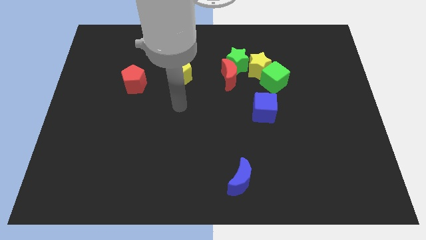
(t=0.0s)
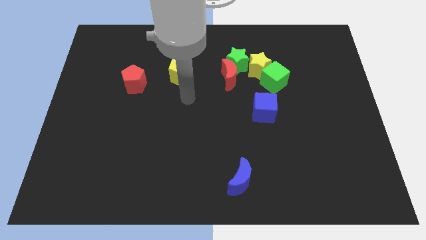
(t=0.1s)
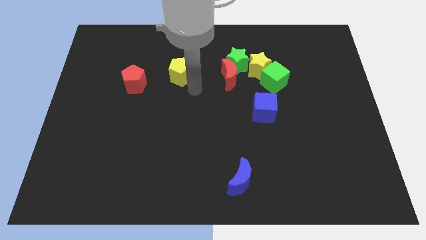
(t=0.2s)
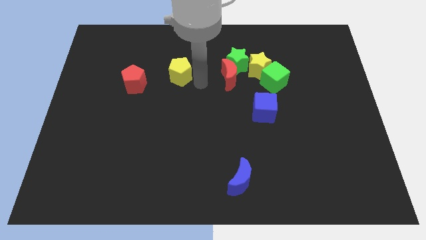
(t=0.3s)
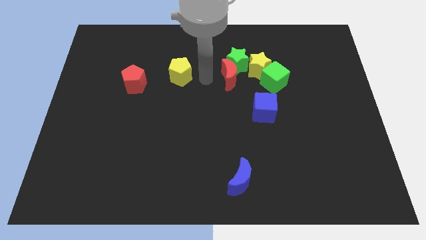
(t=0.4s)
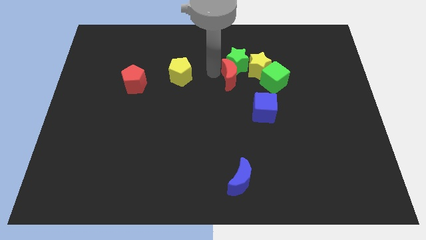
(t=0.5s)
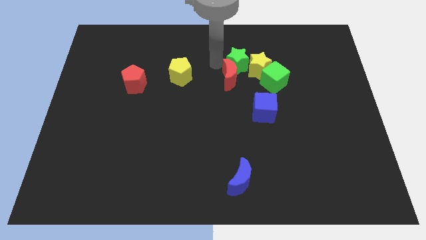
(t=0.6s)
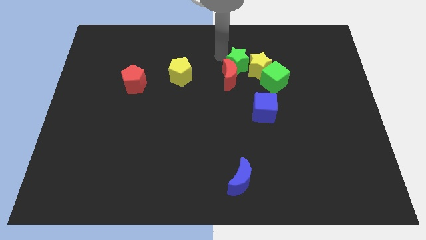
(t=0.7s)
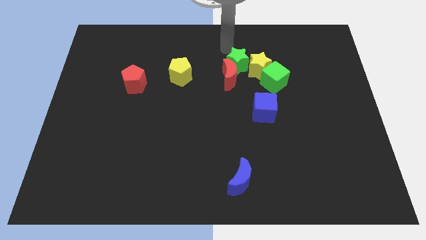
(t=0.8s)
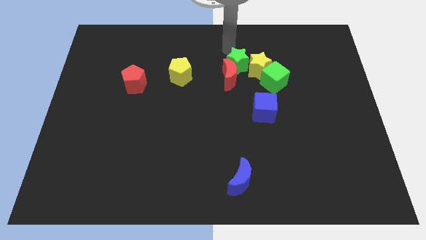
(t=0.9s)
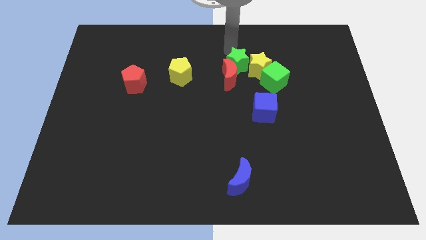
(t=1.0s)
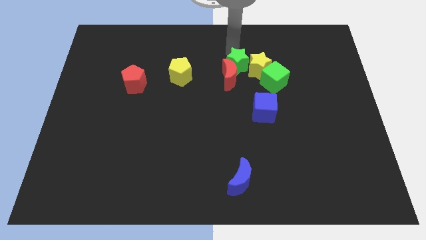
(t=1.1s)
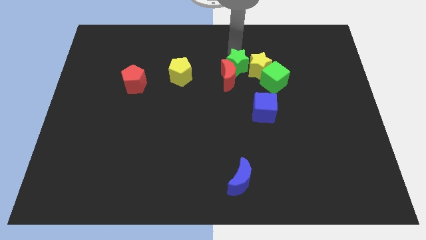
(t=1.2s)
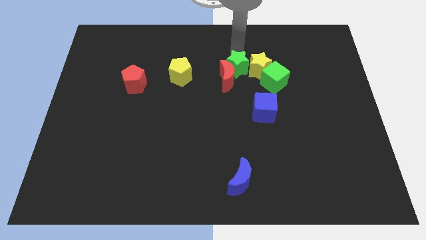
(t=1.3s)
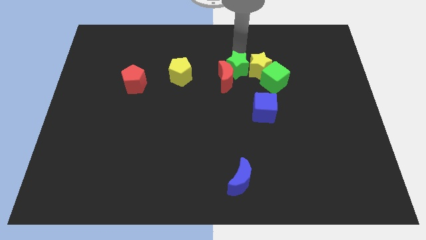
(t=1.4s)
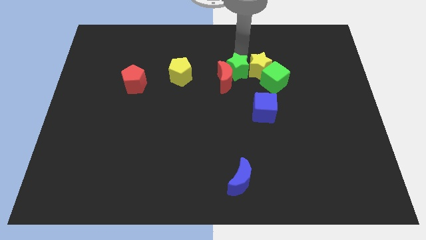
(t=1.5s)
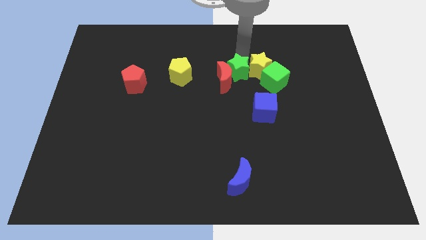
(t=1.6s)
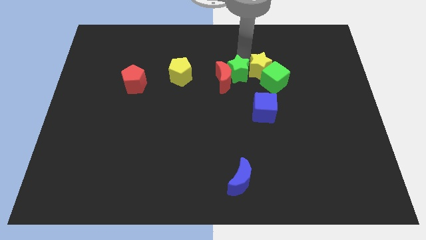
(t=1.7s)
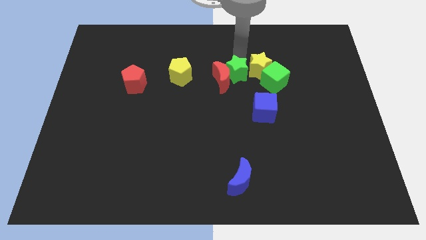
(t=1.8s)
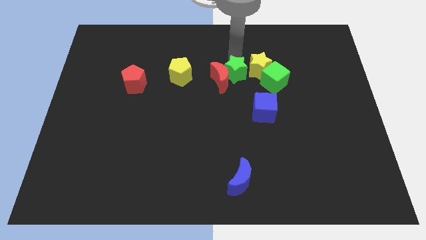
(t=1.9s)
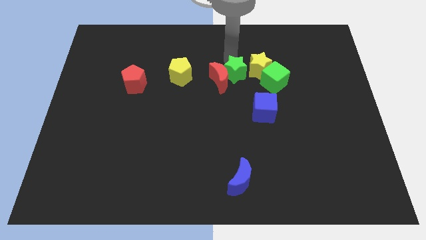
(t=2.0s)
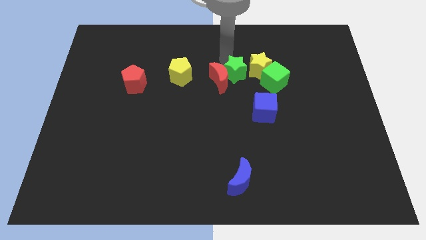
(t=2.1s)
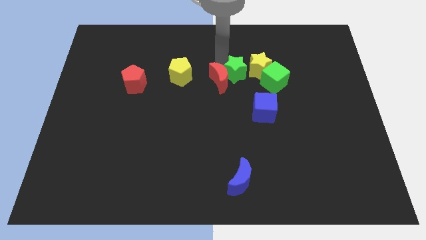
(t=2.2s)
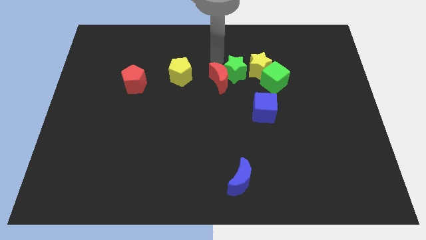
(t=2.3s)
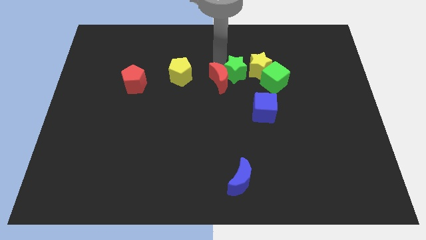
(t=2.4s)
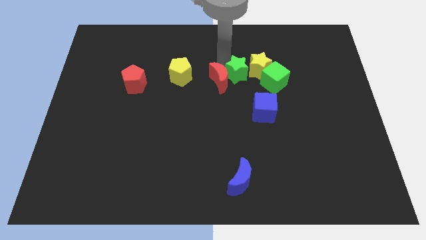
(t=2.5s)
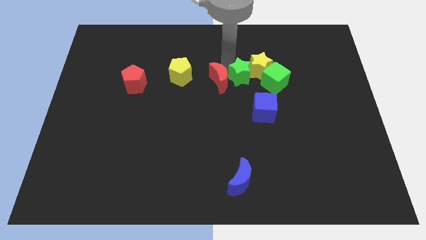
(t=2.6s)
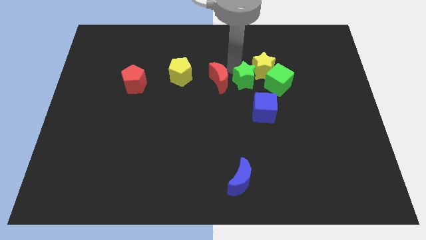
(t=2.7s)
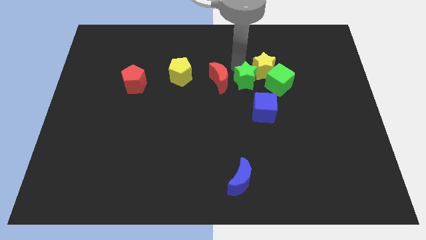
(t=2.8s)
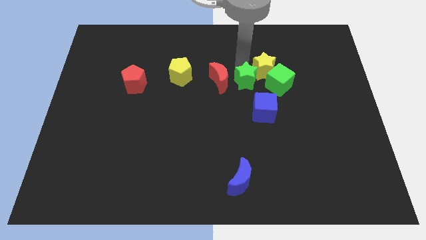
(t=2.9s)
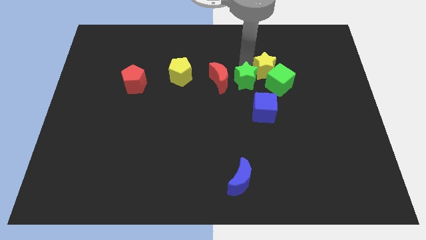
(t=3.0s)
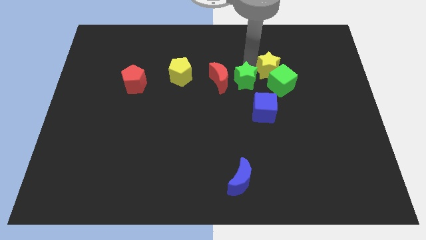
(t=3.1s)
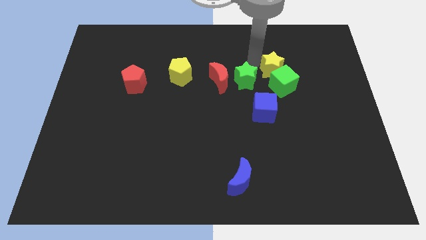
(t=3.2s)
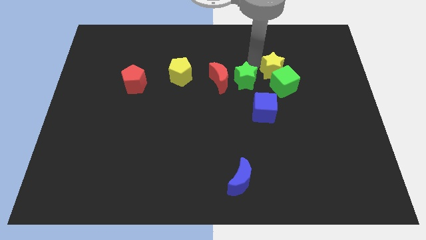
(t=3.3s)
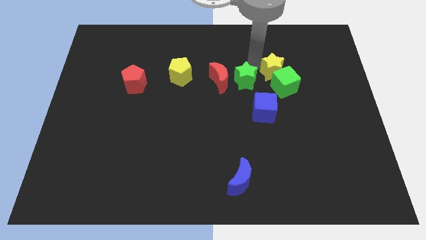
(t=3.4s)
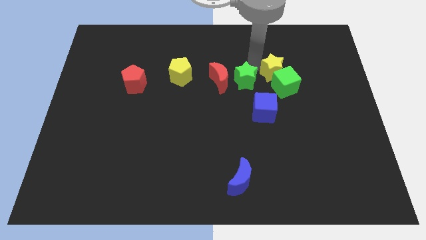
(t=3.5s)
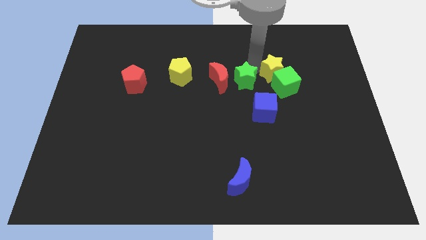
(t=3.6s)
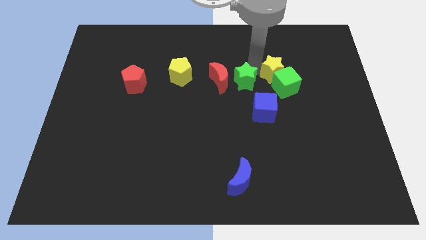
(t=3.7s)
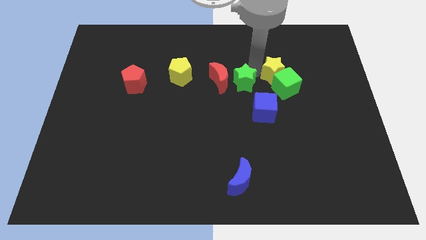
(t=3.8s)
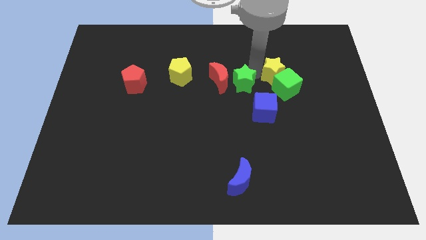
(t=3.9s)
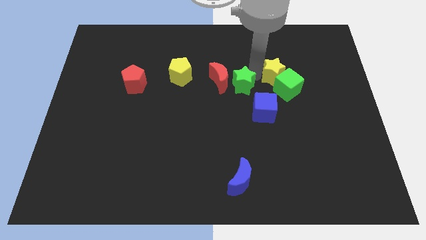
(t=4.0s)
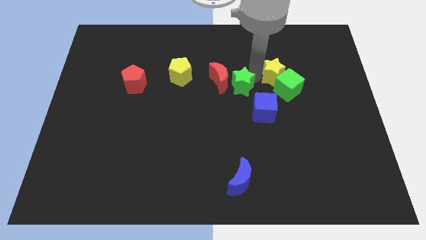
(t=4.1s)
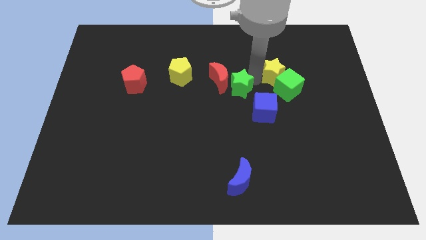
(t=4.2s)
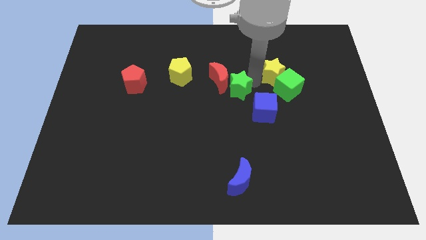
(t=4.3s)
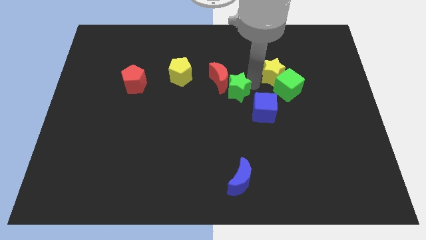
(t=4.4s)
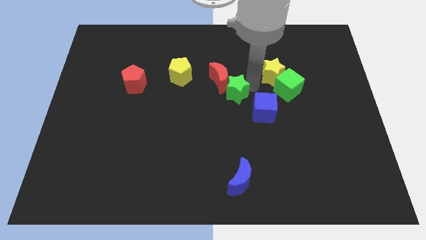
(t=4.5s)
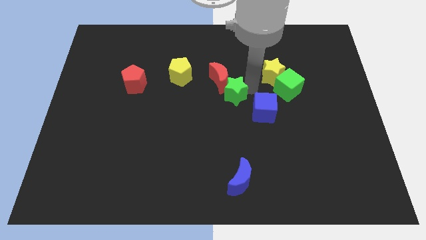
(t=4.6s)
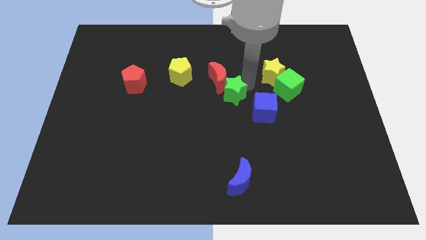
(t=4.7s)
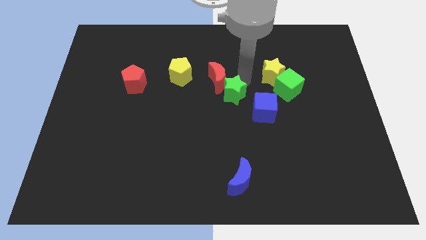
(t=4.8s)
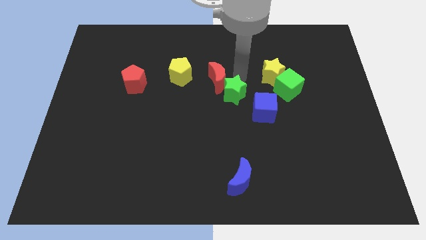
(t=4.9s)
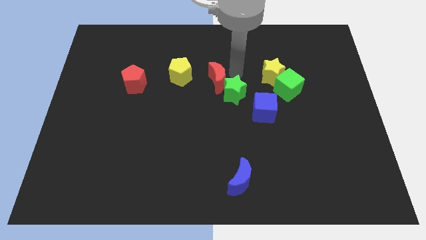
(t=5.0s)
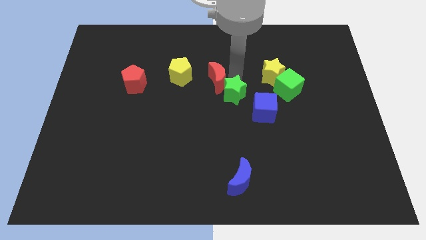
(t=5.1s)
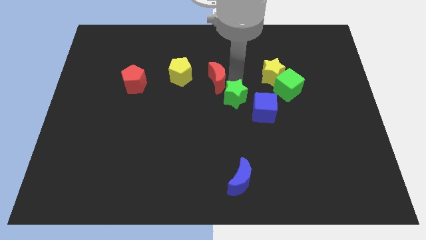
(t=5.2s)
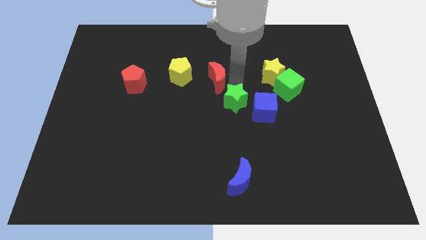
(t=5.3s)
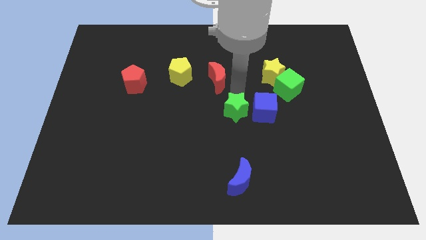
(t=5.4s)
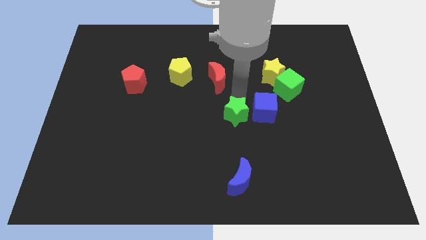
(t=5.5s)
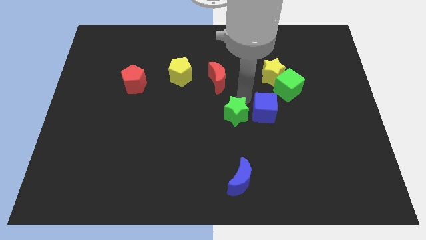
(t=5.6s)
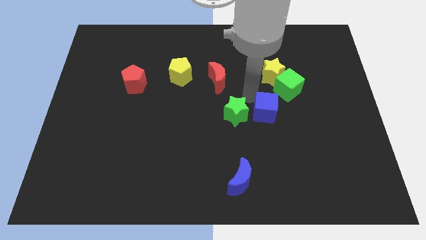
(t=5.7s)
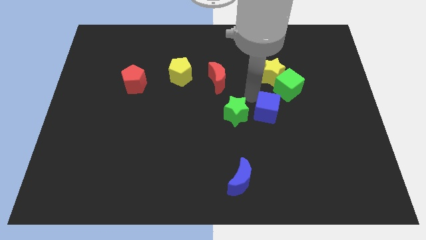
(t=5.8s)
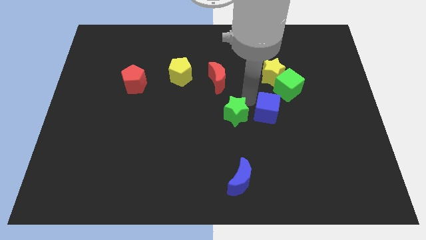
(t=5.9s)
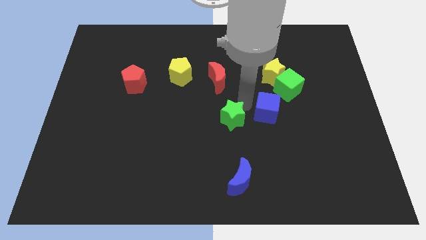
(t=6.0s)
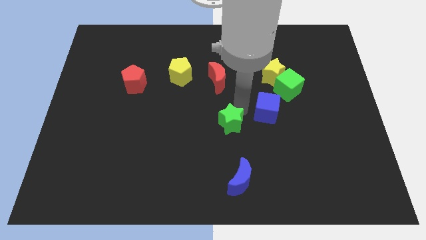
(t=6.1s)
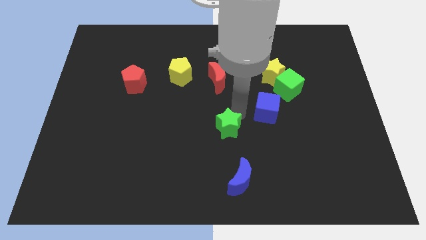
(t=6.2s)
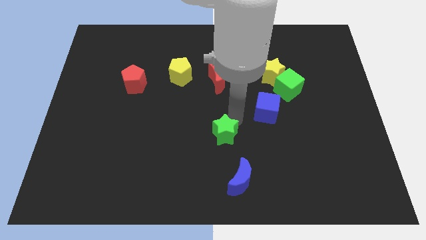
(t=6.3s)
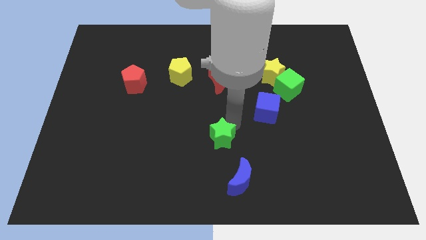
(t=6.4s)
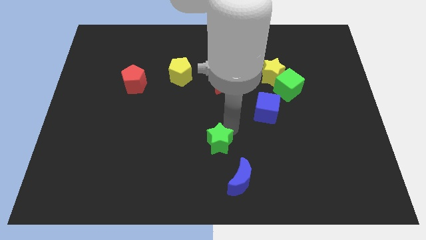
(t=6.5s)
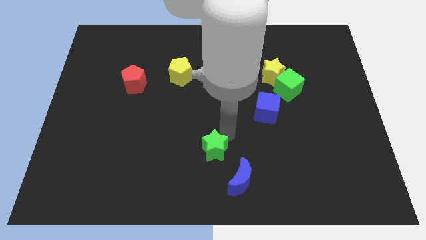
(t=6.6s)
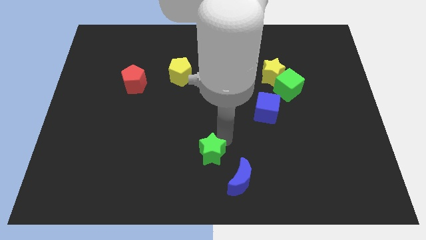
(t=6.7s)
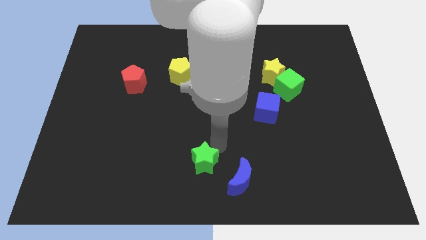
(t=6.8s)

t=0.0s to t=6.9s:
move the green star to the left of the blue moon

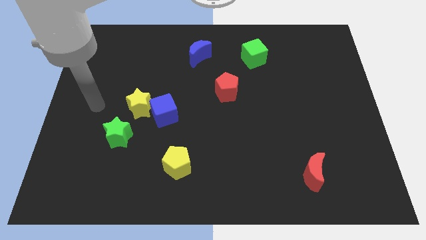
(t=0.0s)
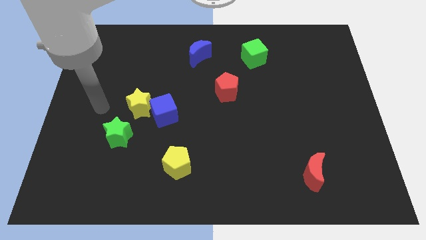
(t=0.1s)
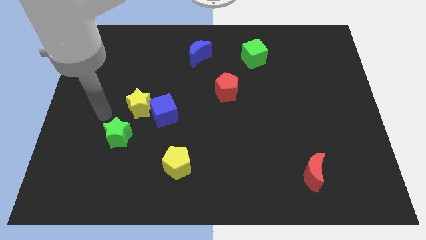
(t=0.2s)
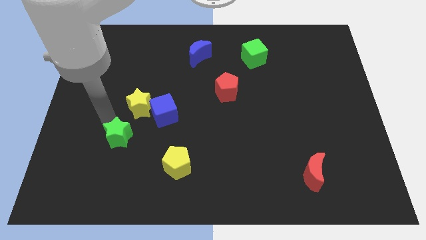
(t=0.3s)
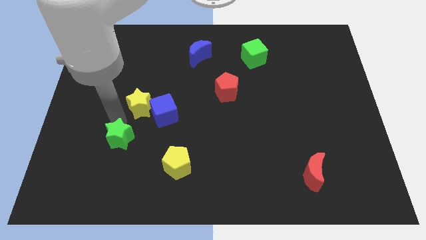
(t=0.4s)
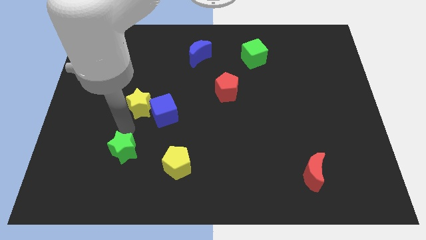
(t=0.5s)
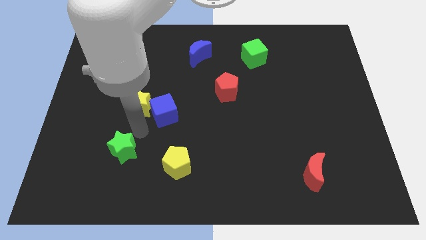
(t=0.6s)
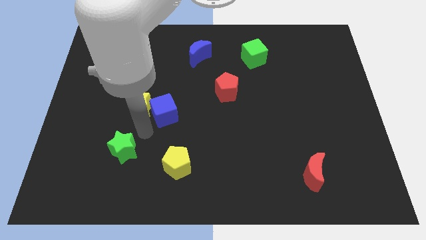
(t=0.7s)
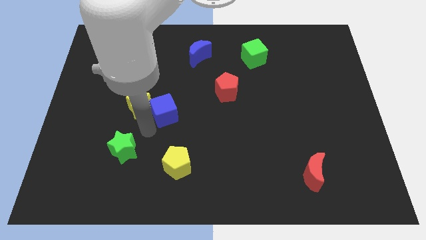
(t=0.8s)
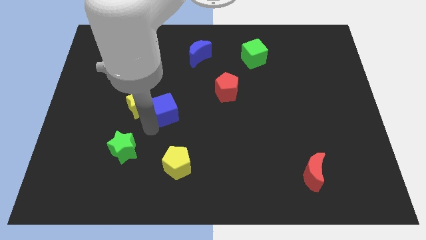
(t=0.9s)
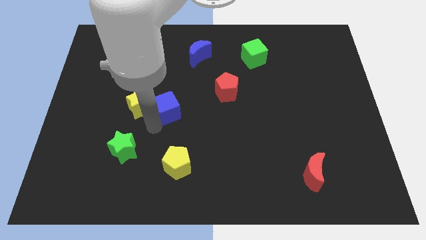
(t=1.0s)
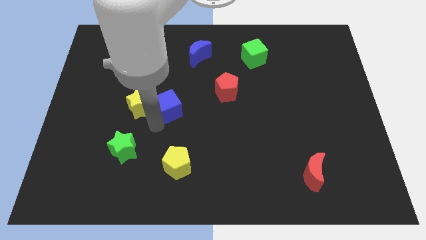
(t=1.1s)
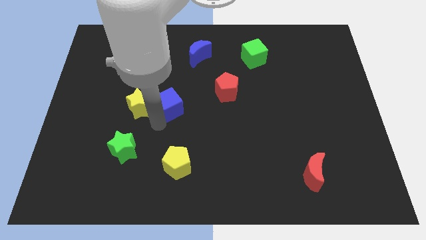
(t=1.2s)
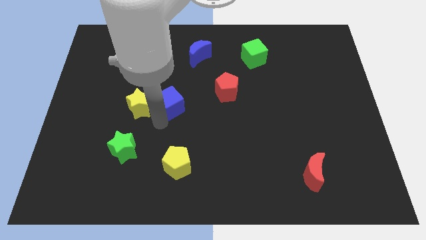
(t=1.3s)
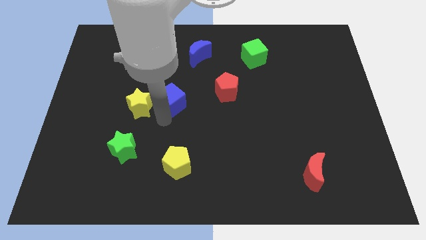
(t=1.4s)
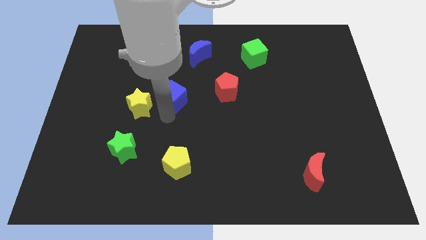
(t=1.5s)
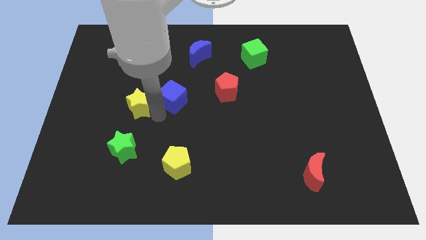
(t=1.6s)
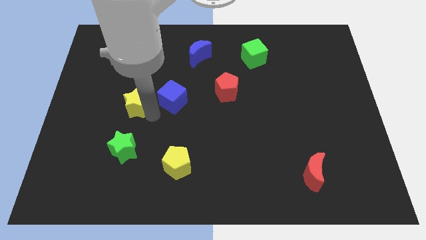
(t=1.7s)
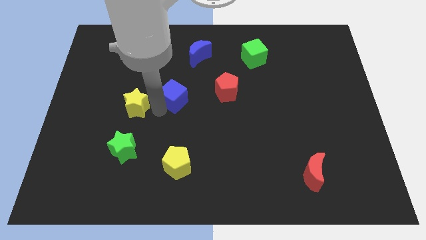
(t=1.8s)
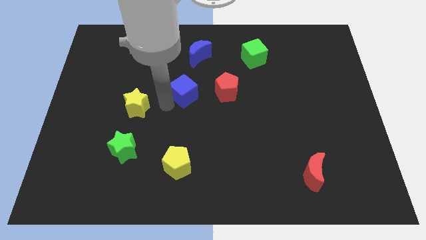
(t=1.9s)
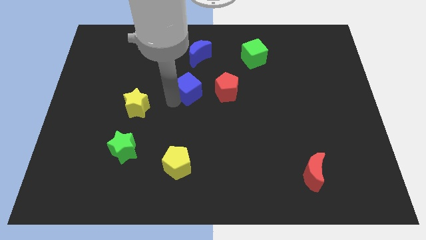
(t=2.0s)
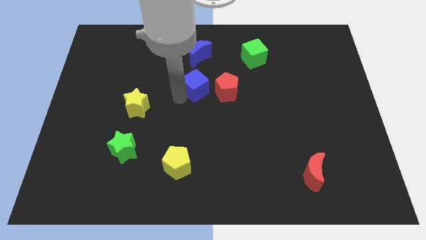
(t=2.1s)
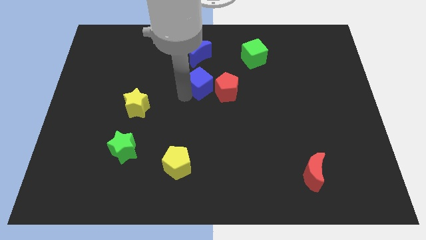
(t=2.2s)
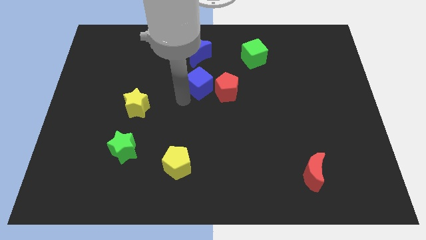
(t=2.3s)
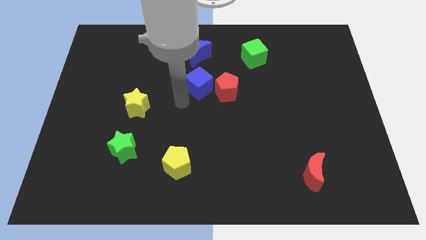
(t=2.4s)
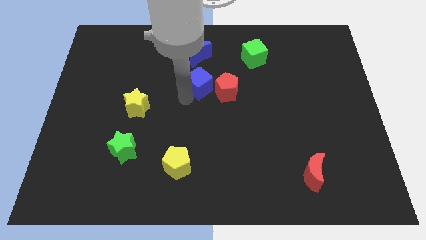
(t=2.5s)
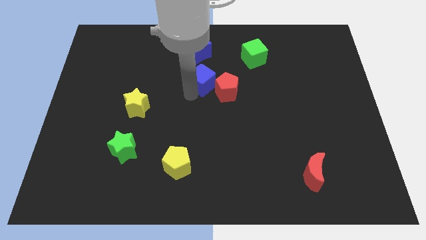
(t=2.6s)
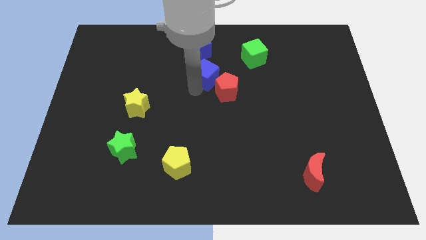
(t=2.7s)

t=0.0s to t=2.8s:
slide the blue cube to the bottom right side of the blue moon
